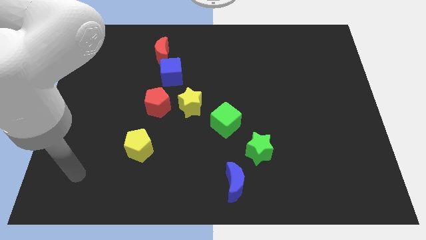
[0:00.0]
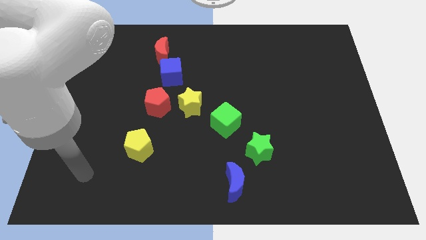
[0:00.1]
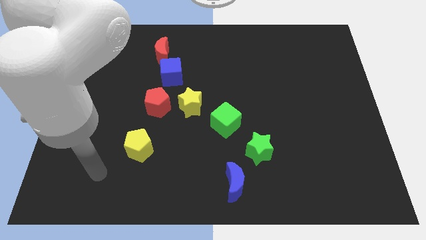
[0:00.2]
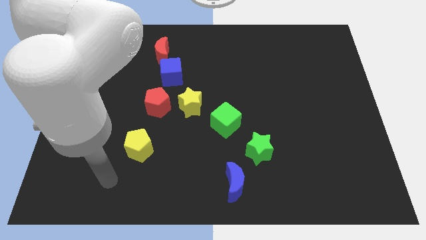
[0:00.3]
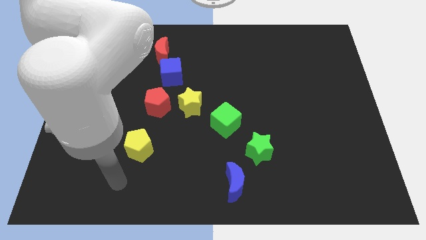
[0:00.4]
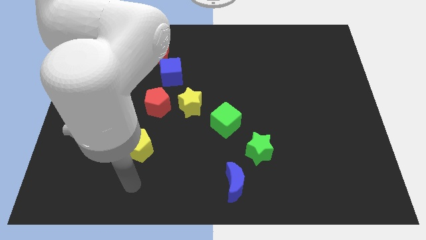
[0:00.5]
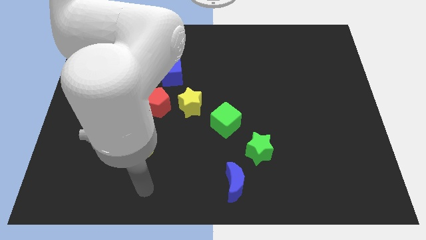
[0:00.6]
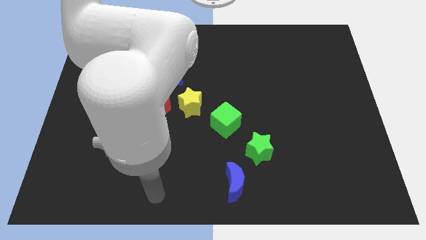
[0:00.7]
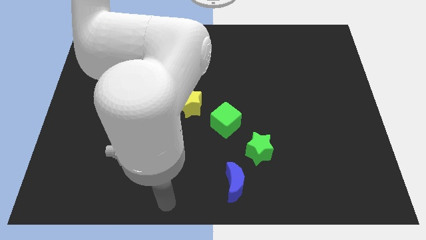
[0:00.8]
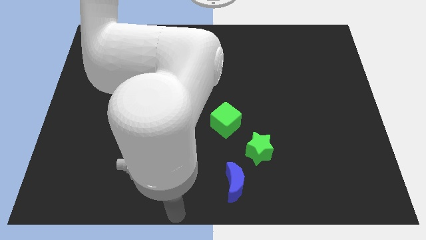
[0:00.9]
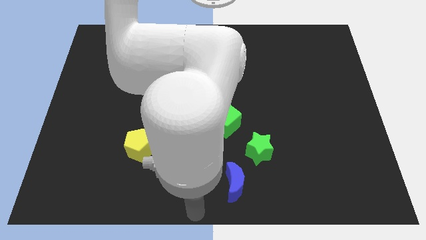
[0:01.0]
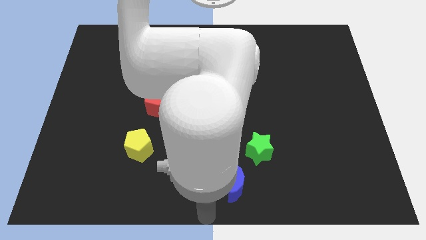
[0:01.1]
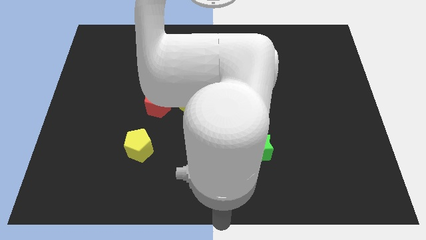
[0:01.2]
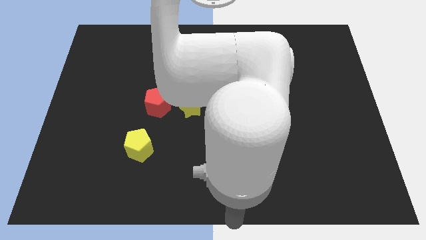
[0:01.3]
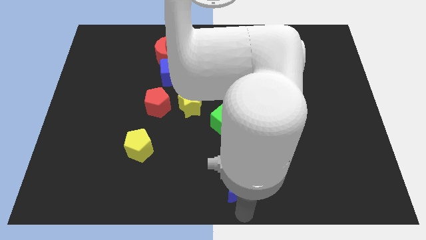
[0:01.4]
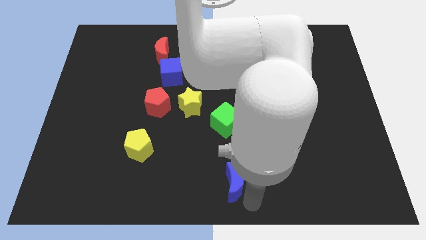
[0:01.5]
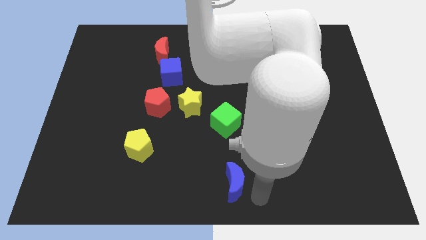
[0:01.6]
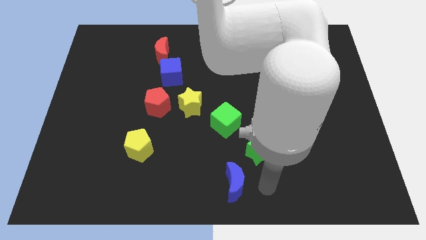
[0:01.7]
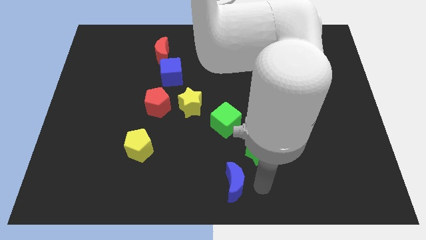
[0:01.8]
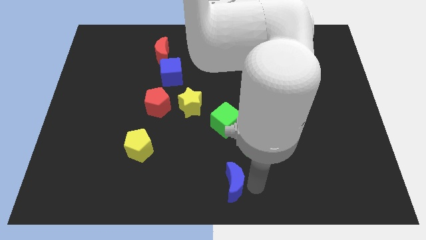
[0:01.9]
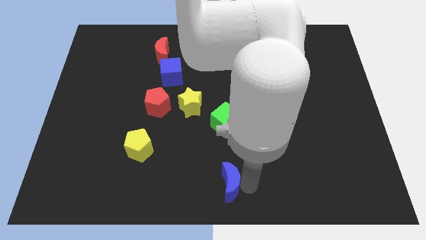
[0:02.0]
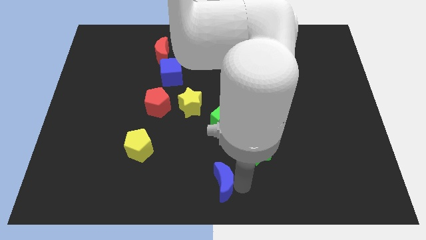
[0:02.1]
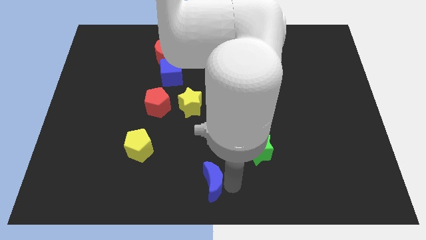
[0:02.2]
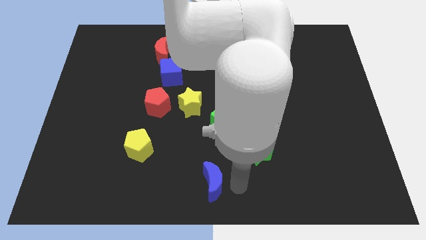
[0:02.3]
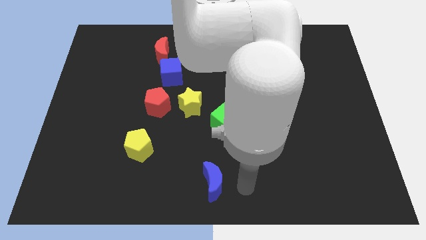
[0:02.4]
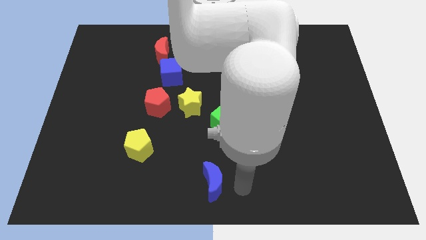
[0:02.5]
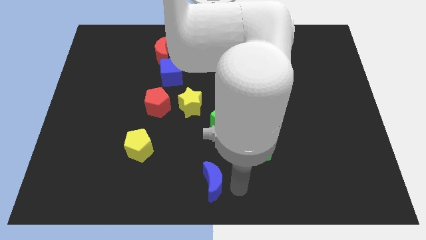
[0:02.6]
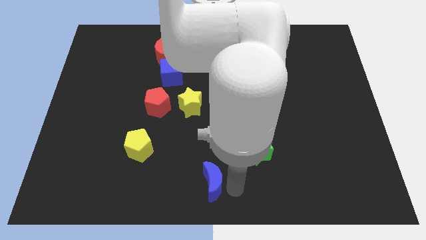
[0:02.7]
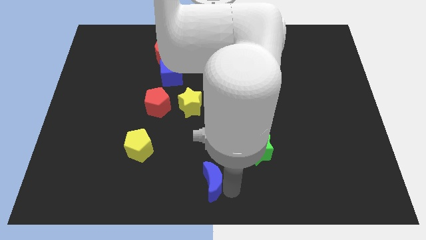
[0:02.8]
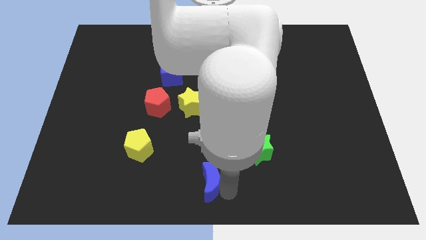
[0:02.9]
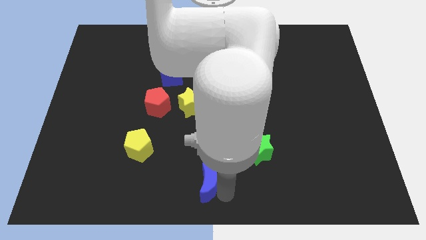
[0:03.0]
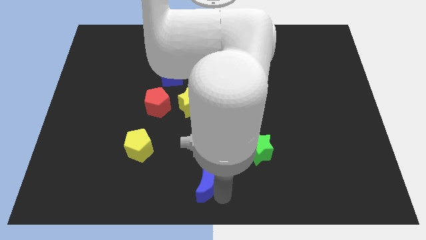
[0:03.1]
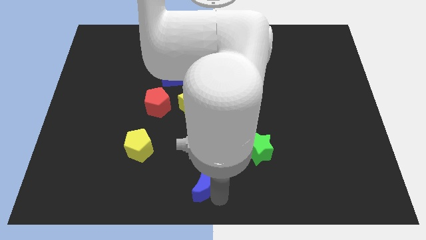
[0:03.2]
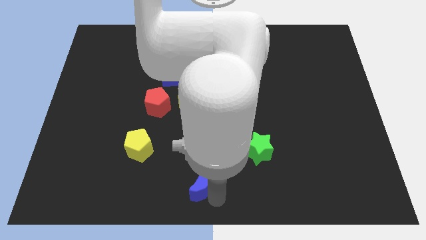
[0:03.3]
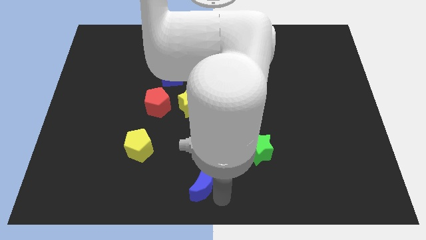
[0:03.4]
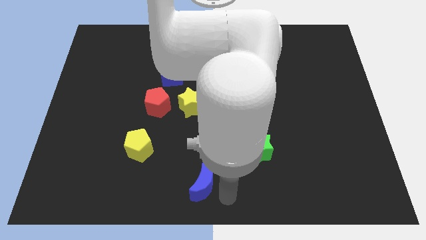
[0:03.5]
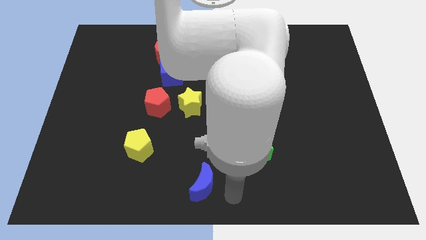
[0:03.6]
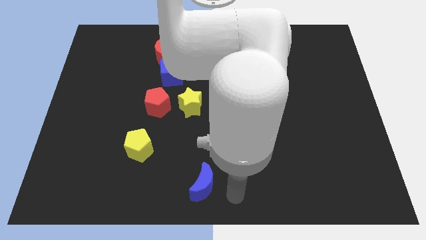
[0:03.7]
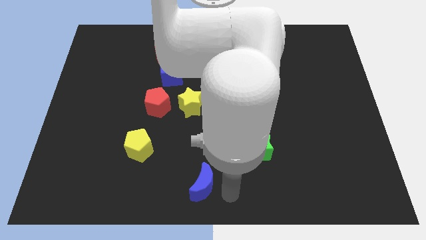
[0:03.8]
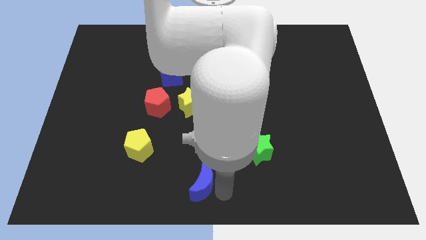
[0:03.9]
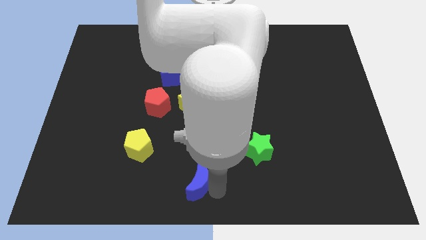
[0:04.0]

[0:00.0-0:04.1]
slightly push the blue moon to the left

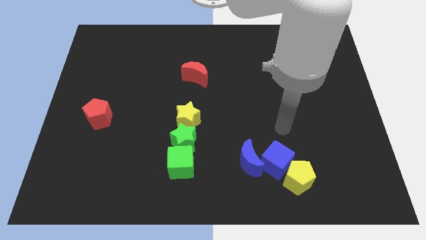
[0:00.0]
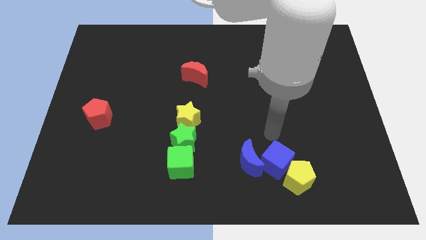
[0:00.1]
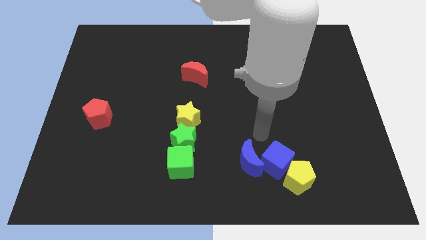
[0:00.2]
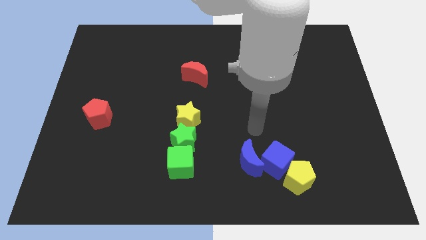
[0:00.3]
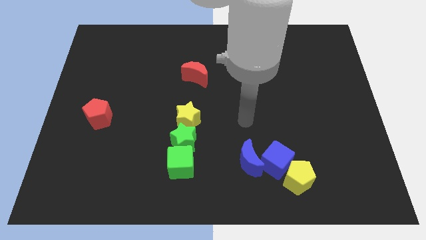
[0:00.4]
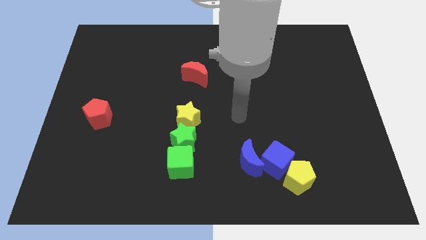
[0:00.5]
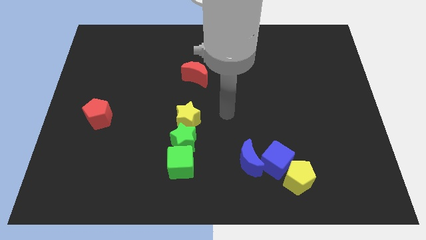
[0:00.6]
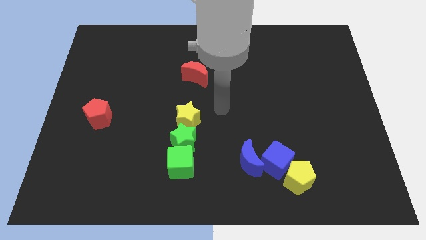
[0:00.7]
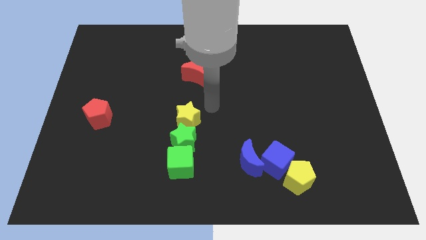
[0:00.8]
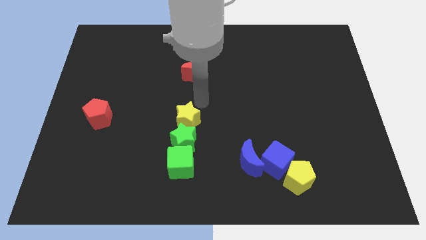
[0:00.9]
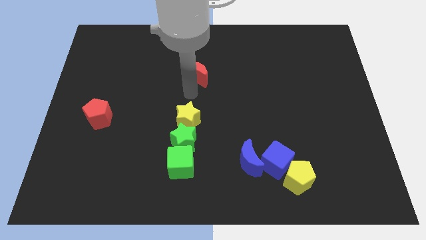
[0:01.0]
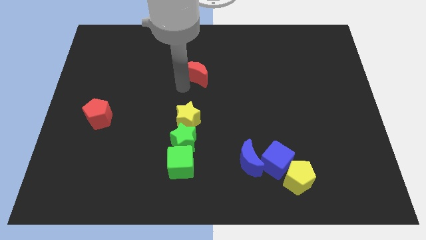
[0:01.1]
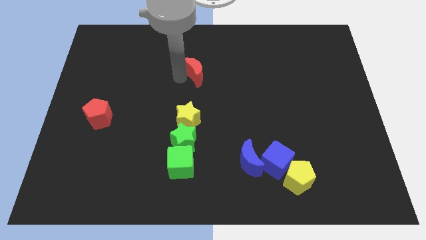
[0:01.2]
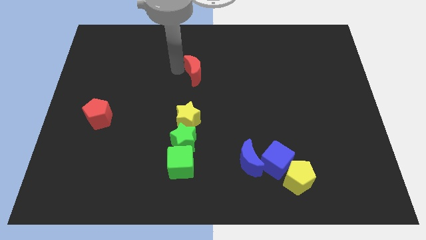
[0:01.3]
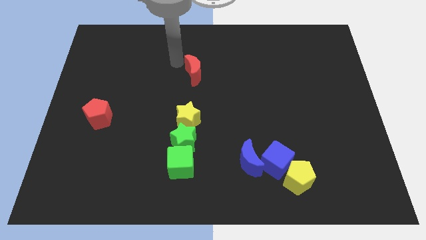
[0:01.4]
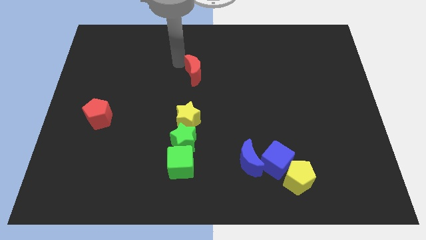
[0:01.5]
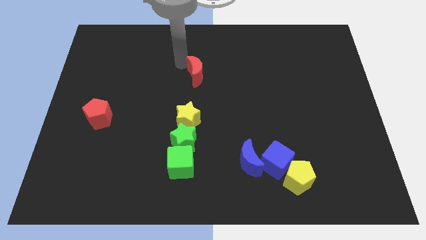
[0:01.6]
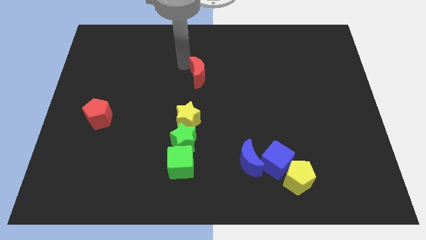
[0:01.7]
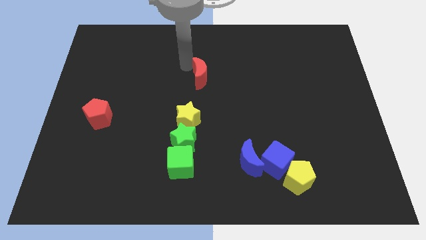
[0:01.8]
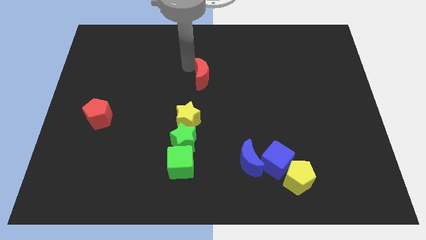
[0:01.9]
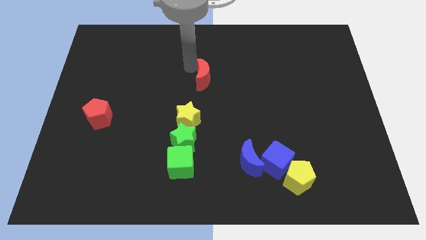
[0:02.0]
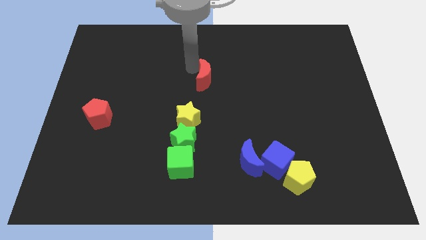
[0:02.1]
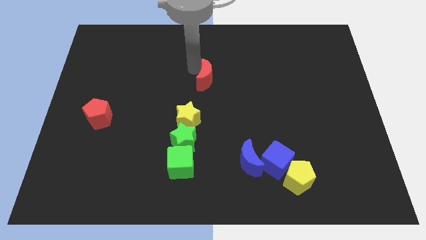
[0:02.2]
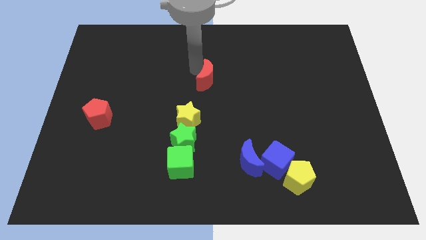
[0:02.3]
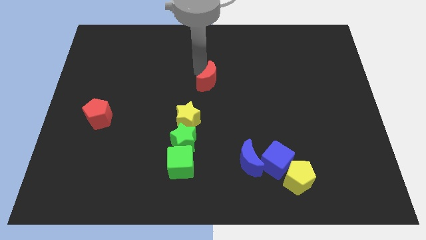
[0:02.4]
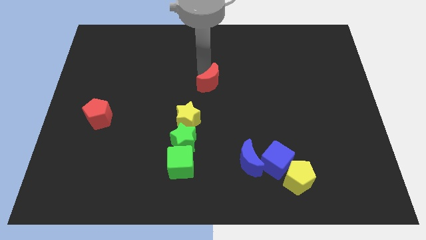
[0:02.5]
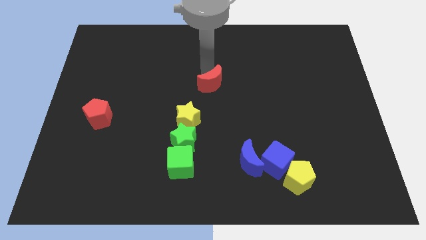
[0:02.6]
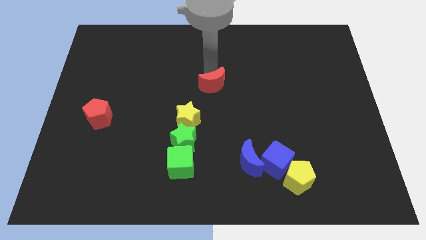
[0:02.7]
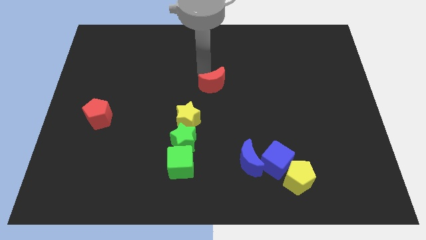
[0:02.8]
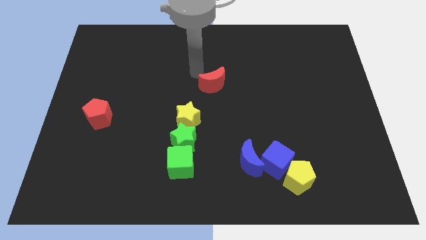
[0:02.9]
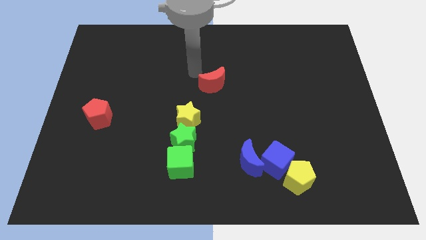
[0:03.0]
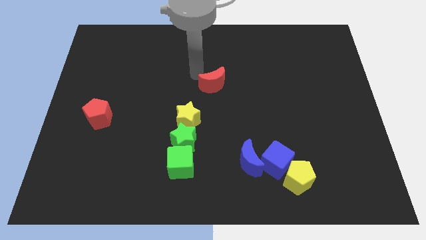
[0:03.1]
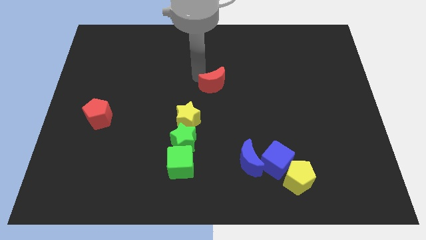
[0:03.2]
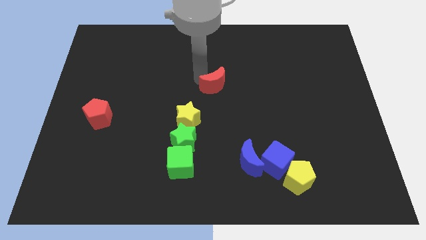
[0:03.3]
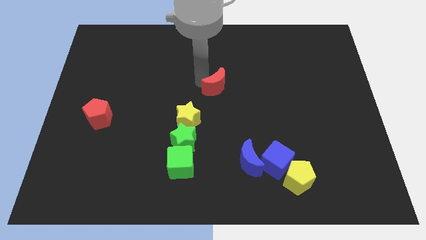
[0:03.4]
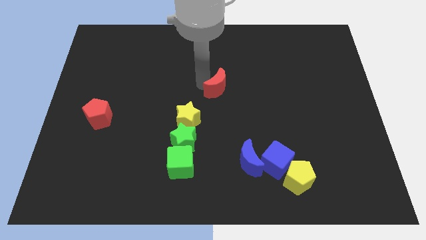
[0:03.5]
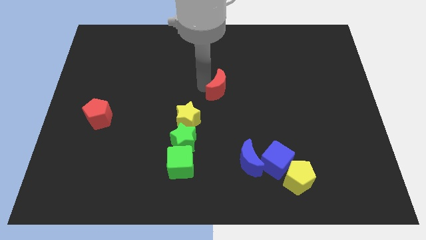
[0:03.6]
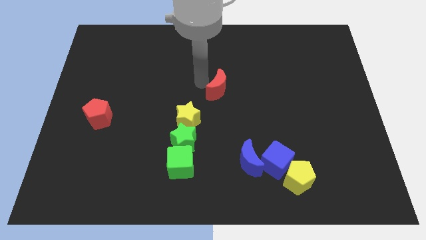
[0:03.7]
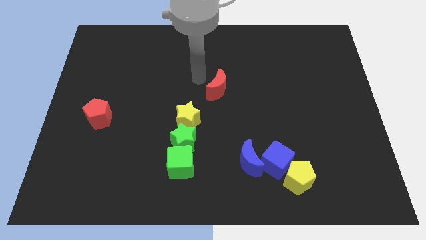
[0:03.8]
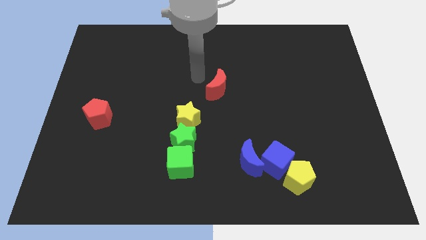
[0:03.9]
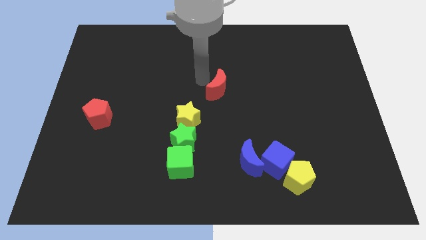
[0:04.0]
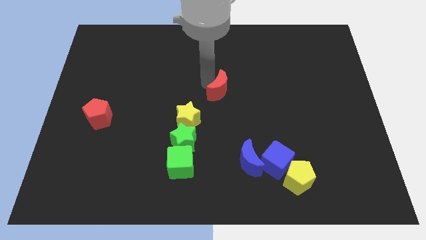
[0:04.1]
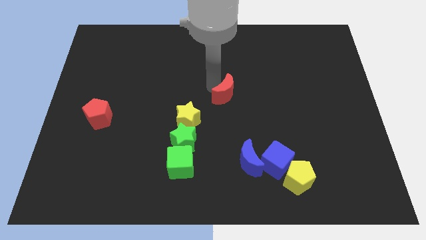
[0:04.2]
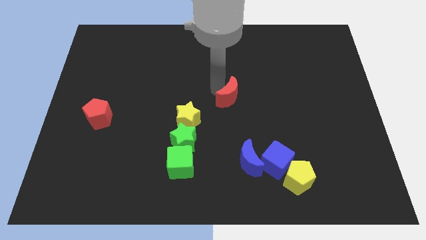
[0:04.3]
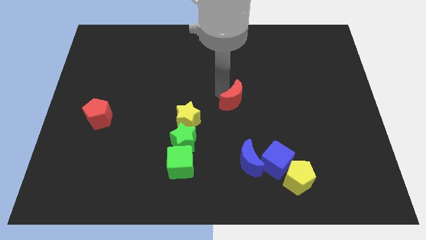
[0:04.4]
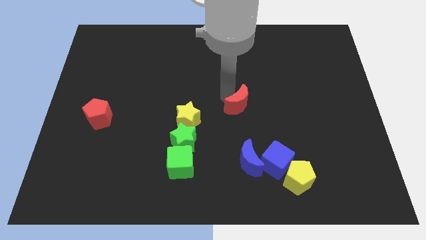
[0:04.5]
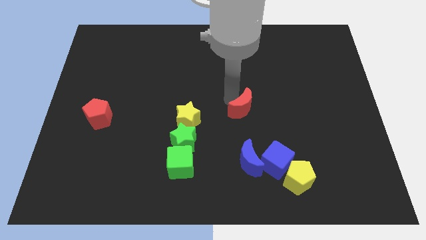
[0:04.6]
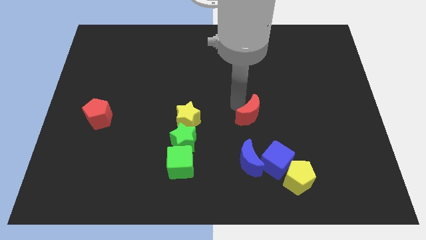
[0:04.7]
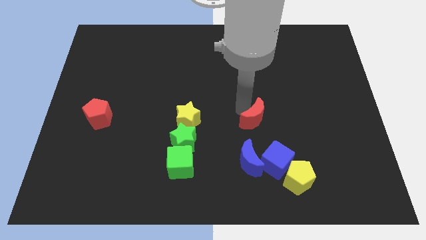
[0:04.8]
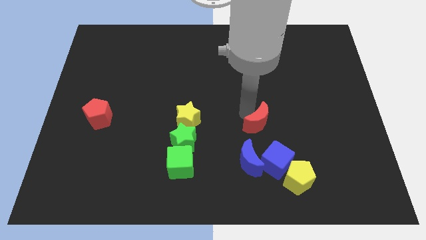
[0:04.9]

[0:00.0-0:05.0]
move the red moon diagonally downwards and to the right
